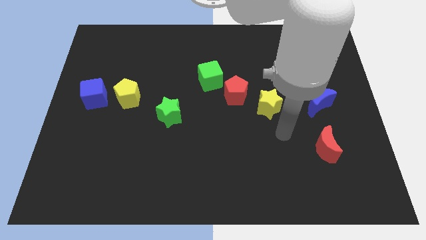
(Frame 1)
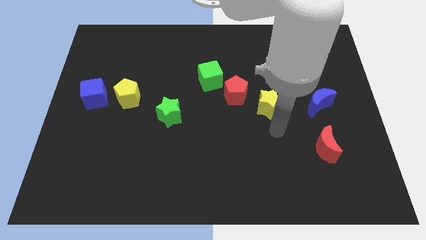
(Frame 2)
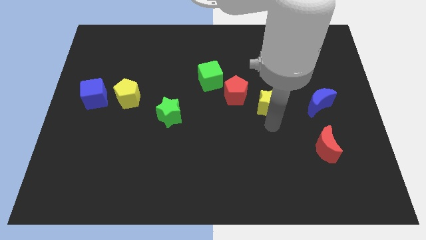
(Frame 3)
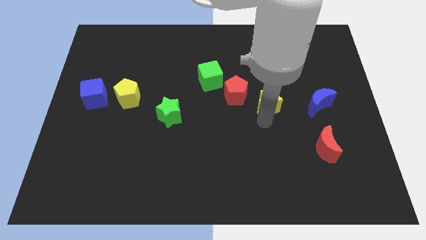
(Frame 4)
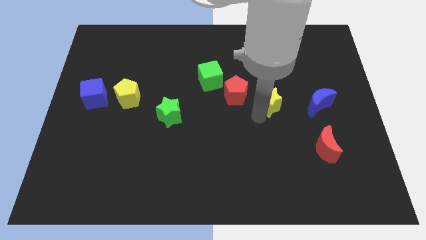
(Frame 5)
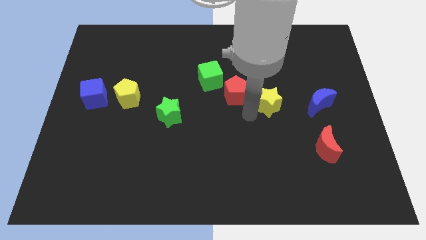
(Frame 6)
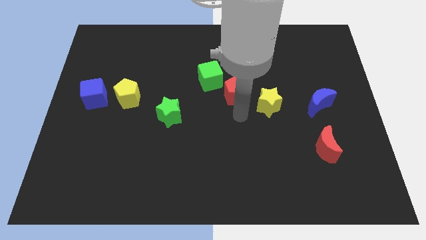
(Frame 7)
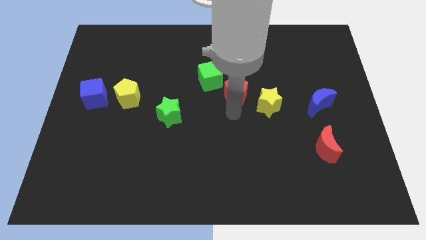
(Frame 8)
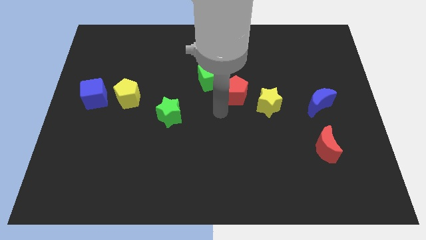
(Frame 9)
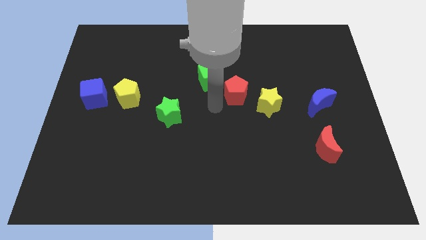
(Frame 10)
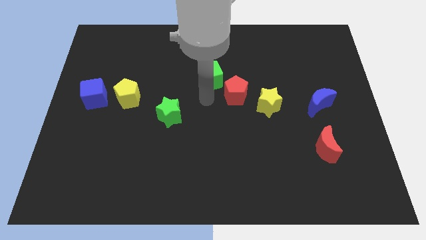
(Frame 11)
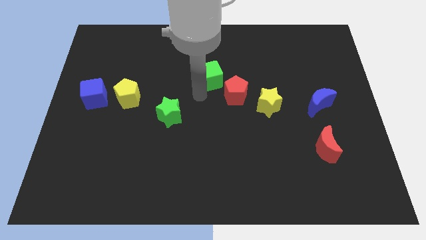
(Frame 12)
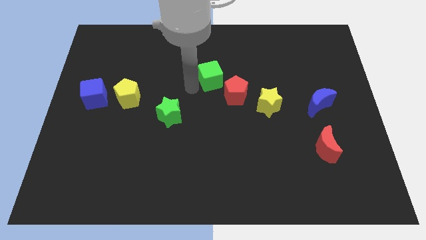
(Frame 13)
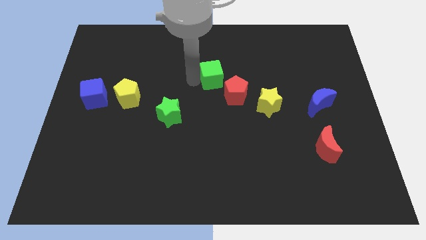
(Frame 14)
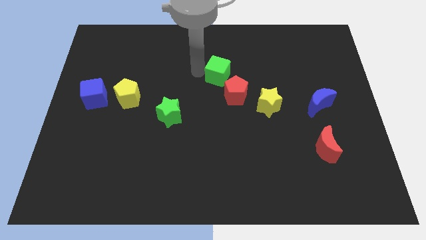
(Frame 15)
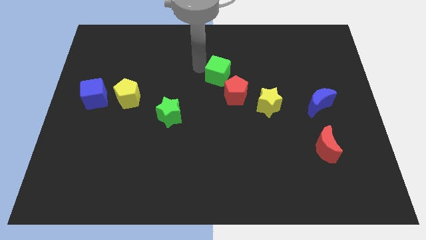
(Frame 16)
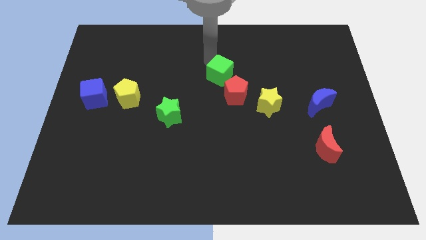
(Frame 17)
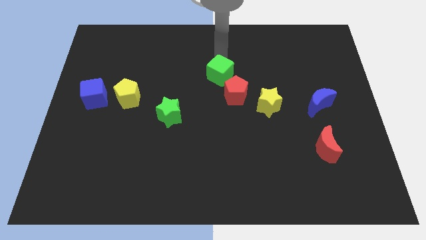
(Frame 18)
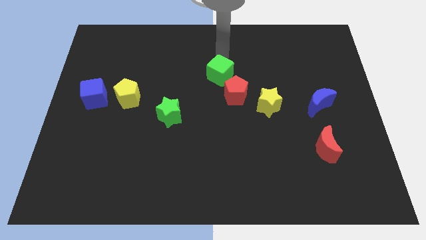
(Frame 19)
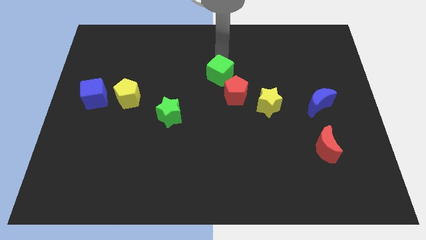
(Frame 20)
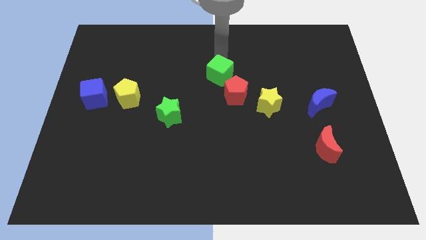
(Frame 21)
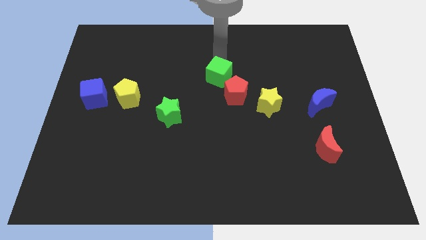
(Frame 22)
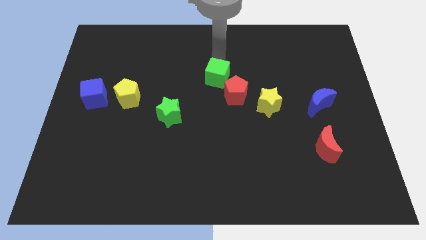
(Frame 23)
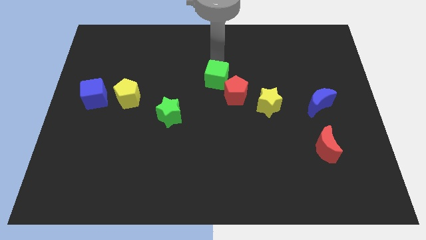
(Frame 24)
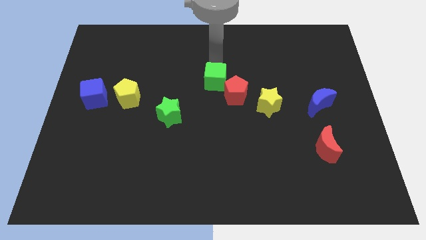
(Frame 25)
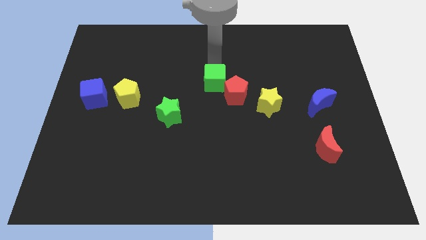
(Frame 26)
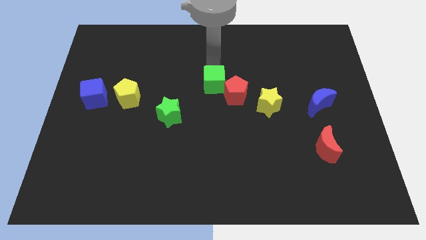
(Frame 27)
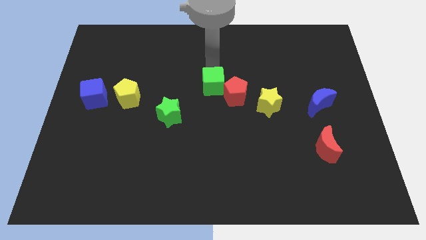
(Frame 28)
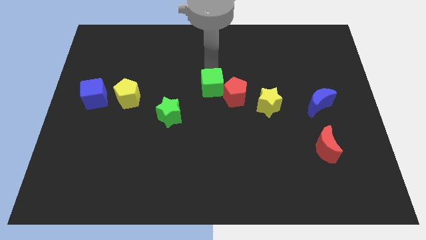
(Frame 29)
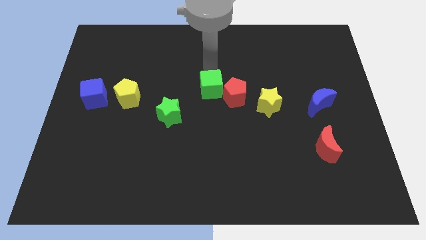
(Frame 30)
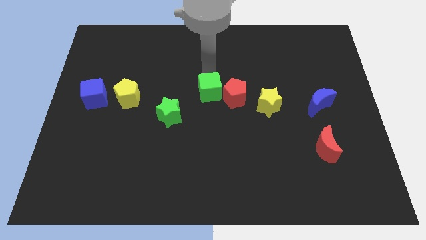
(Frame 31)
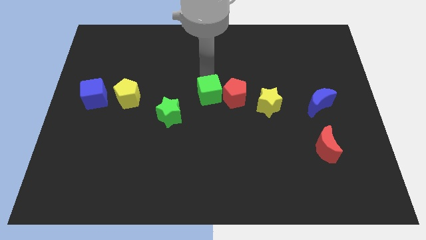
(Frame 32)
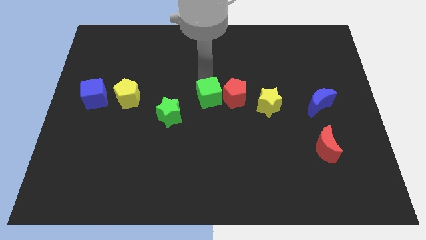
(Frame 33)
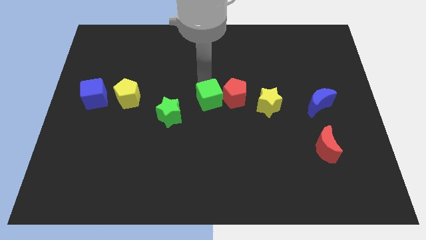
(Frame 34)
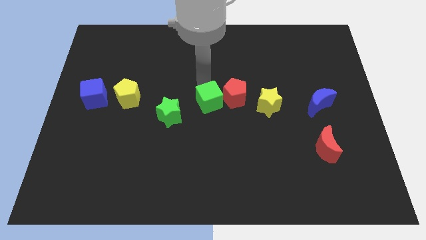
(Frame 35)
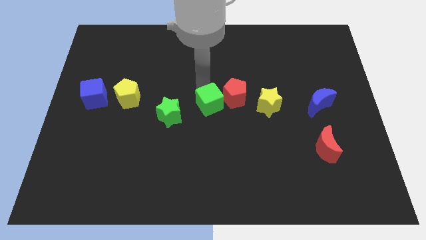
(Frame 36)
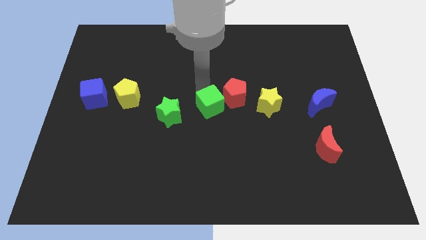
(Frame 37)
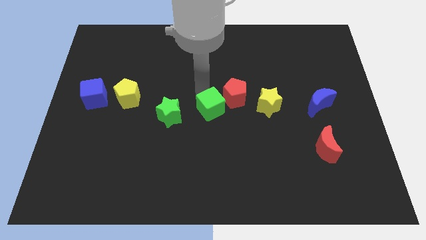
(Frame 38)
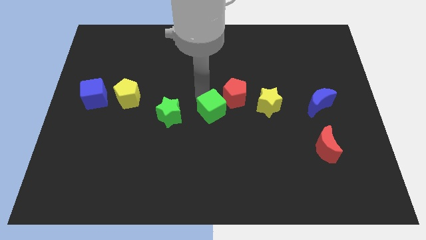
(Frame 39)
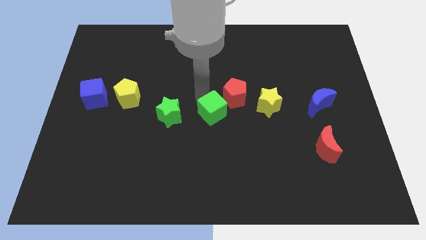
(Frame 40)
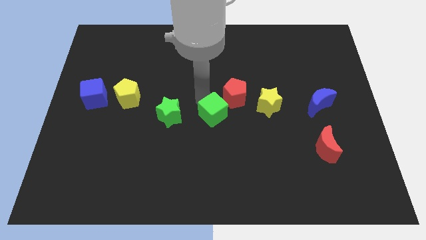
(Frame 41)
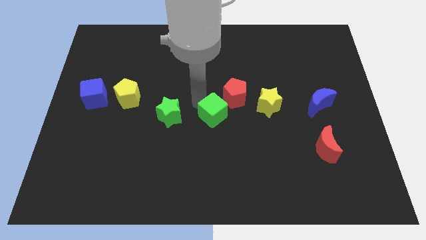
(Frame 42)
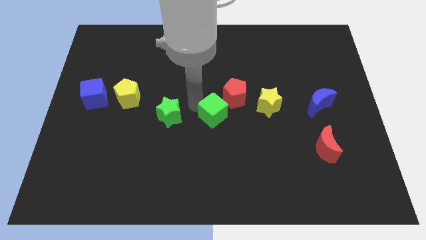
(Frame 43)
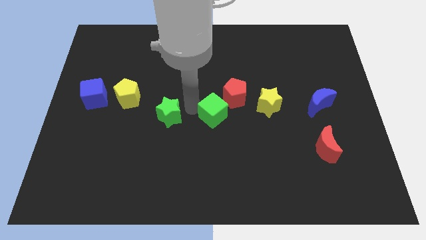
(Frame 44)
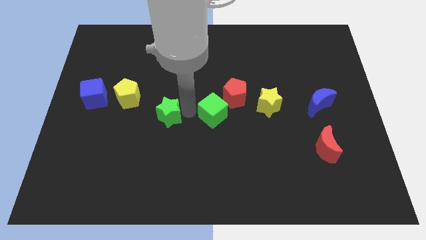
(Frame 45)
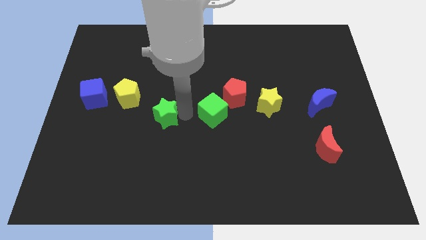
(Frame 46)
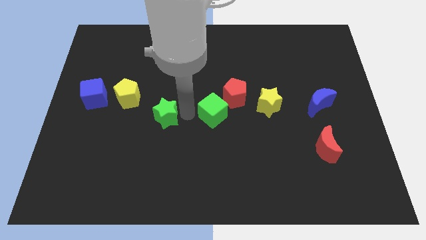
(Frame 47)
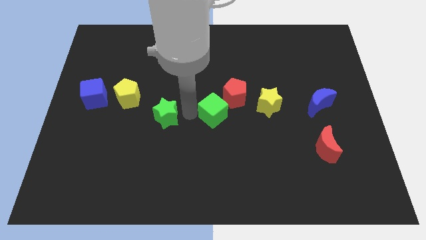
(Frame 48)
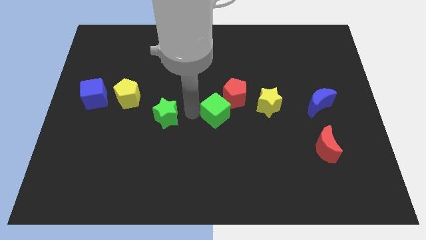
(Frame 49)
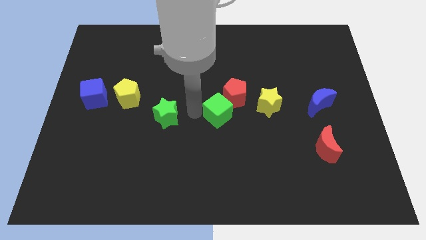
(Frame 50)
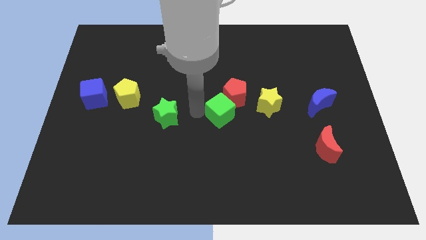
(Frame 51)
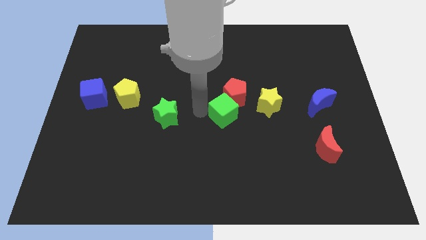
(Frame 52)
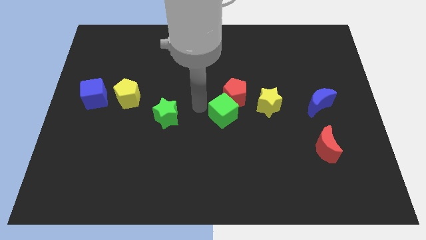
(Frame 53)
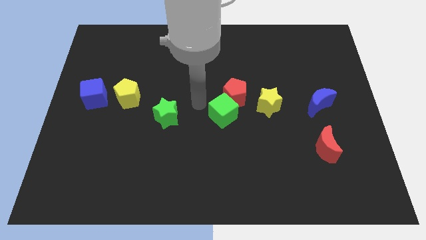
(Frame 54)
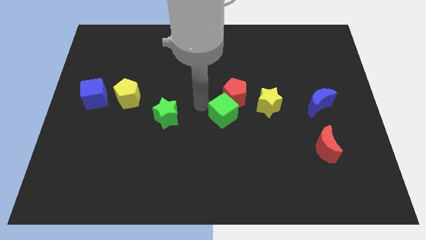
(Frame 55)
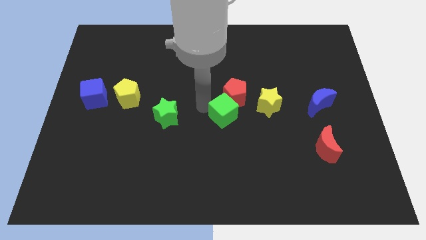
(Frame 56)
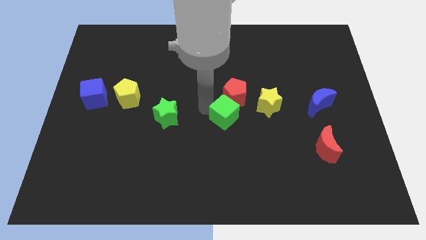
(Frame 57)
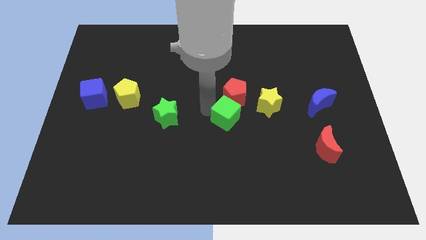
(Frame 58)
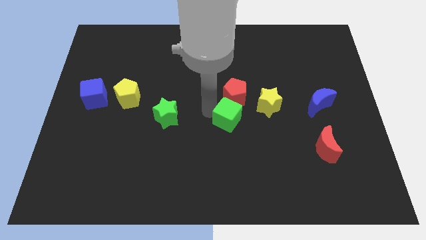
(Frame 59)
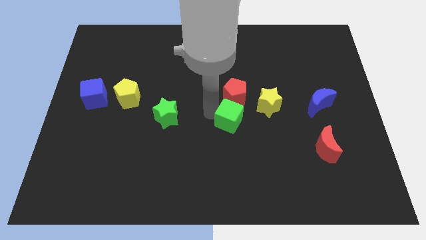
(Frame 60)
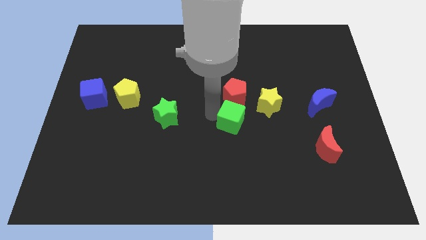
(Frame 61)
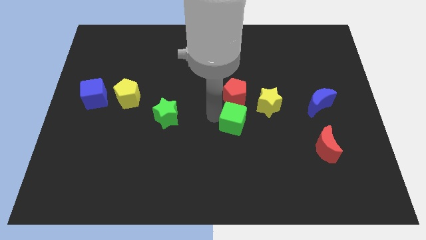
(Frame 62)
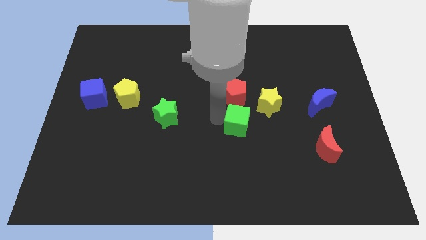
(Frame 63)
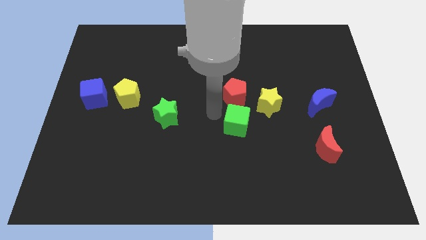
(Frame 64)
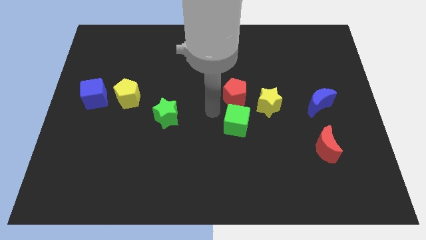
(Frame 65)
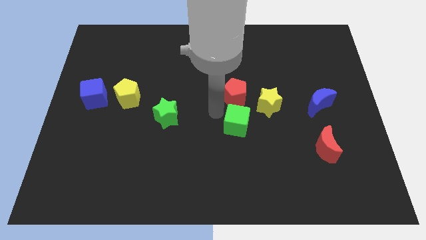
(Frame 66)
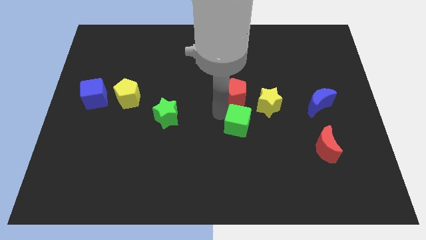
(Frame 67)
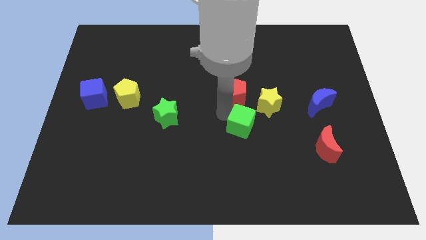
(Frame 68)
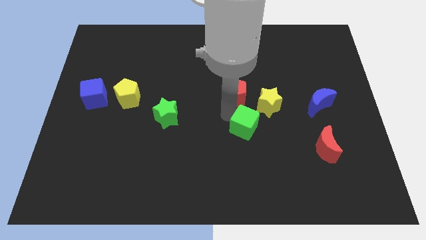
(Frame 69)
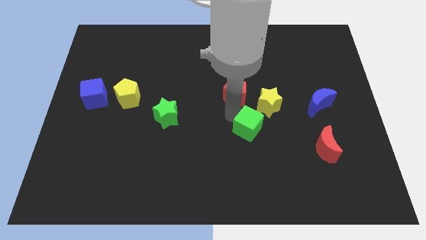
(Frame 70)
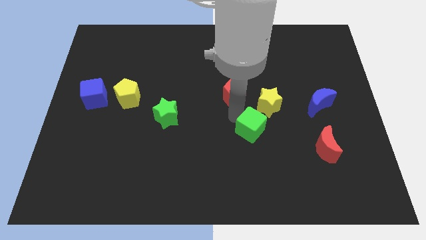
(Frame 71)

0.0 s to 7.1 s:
slide the green cube below the yellow star
